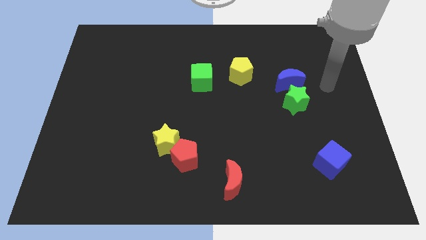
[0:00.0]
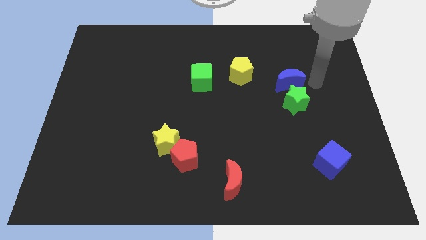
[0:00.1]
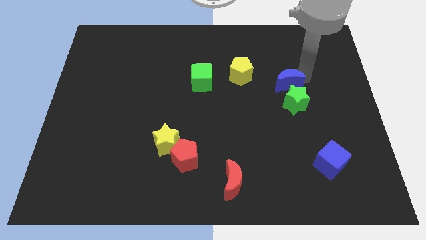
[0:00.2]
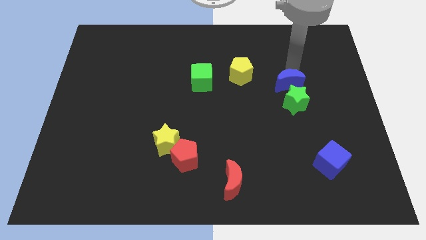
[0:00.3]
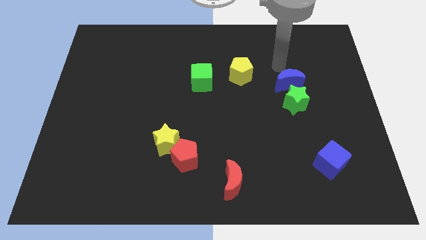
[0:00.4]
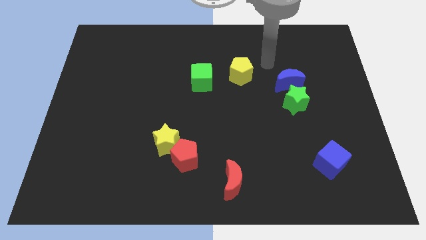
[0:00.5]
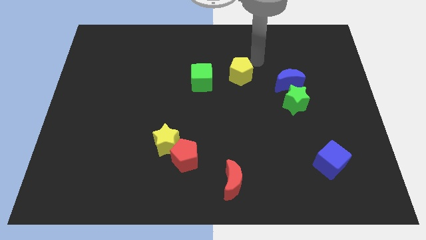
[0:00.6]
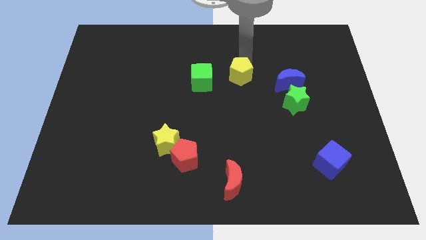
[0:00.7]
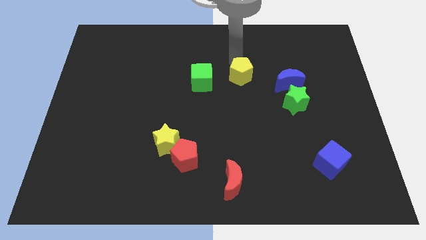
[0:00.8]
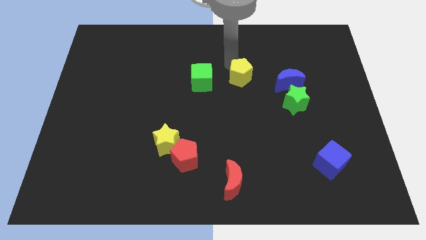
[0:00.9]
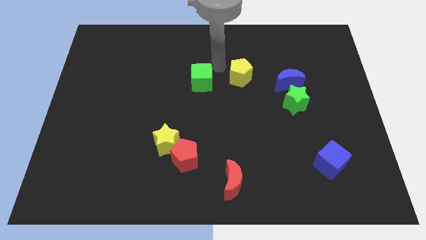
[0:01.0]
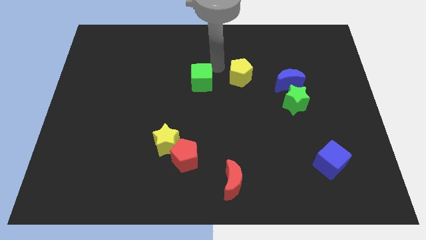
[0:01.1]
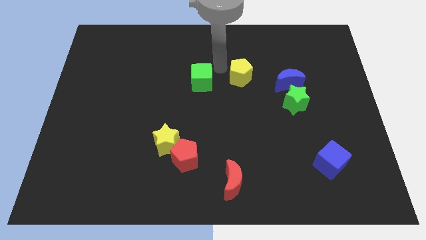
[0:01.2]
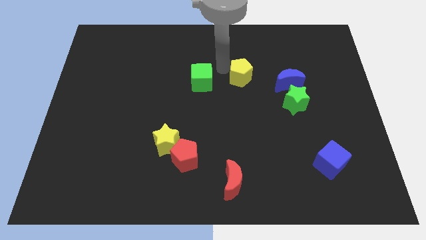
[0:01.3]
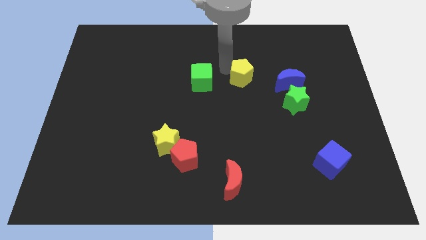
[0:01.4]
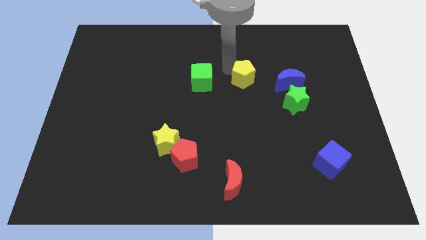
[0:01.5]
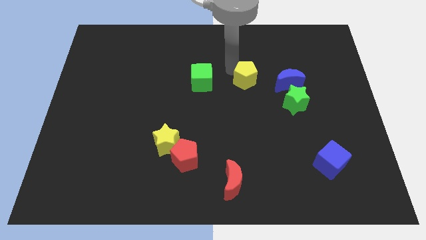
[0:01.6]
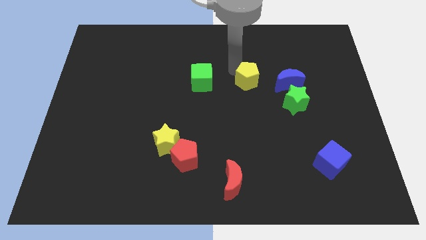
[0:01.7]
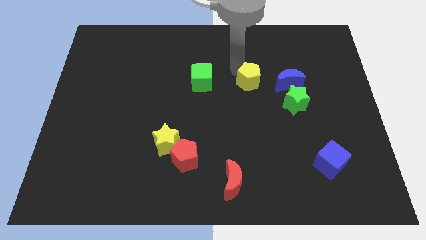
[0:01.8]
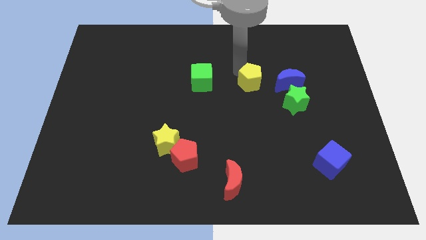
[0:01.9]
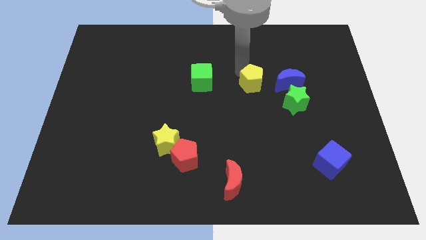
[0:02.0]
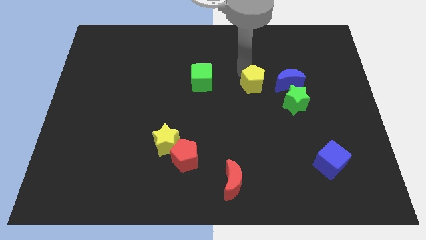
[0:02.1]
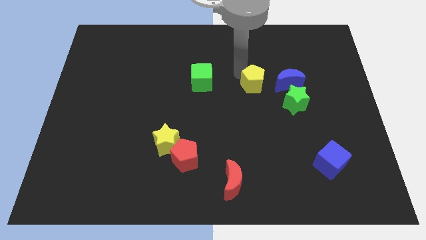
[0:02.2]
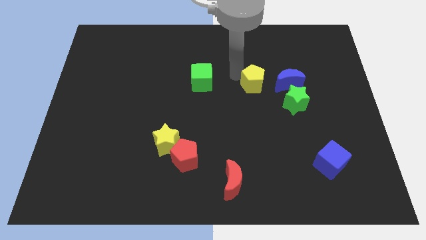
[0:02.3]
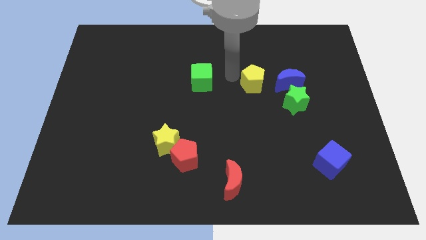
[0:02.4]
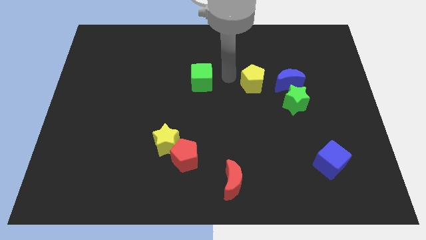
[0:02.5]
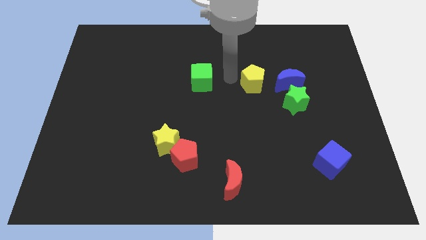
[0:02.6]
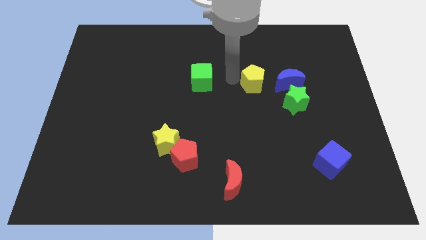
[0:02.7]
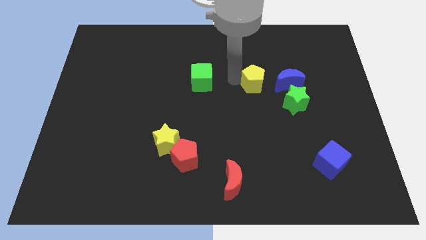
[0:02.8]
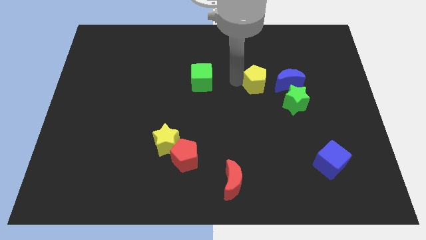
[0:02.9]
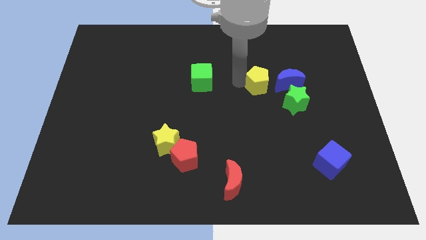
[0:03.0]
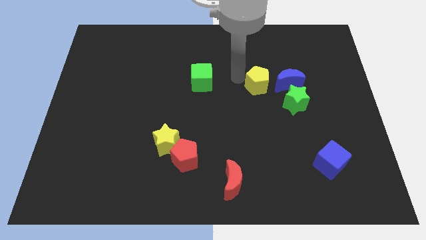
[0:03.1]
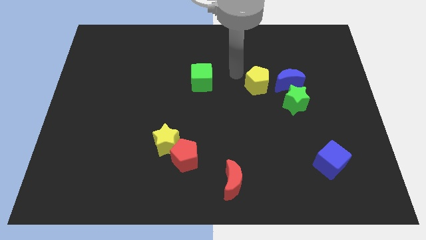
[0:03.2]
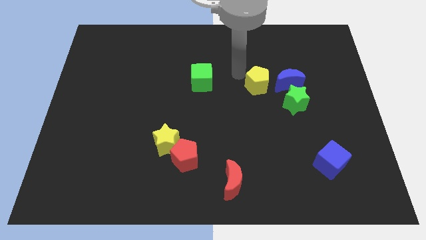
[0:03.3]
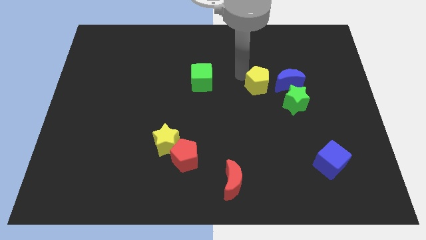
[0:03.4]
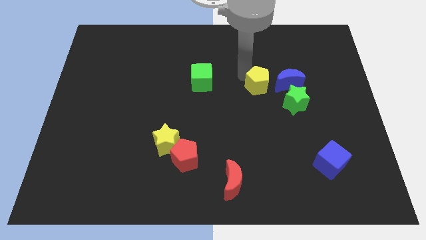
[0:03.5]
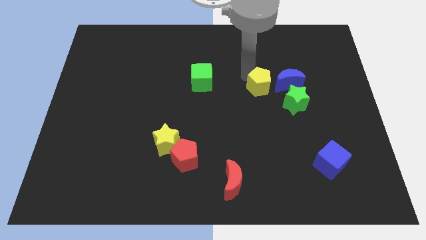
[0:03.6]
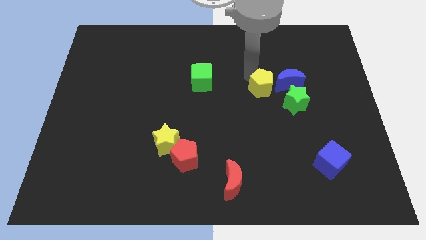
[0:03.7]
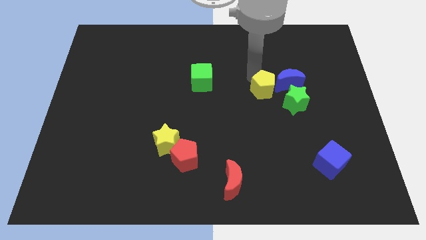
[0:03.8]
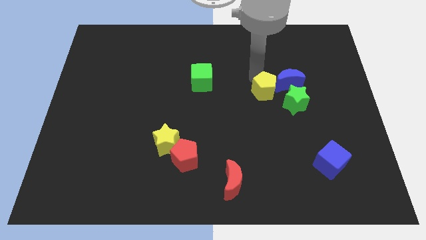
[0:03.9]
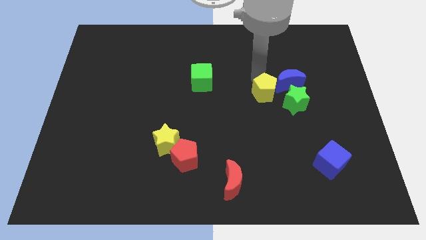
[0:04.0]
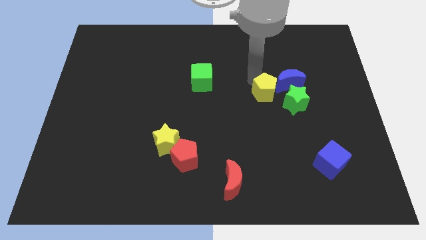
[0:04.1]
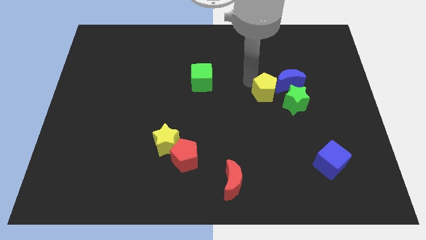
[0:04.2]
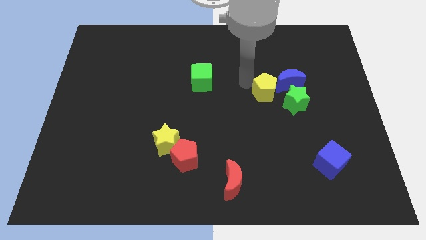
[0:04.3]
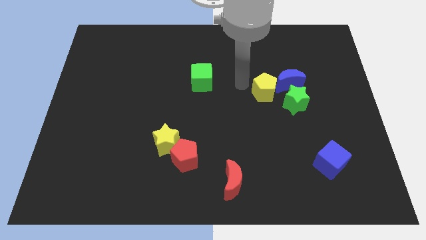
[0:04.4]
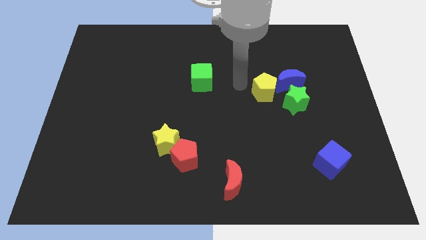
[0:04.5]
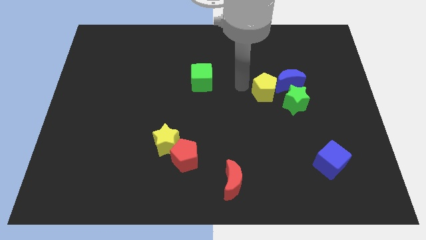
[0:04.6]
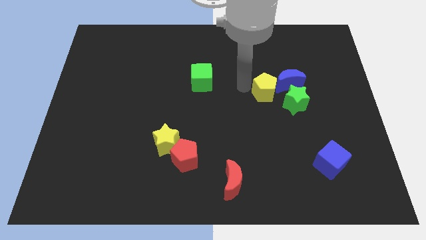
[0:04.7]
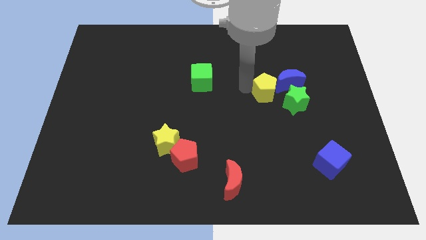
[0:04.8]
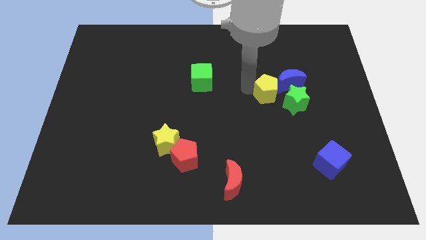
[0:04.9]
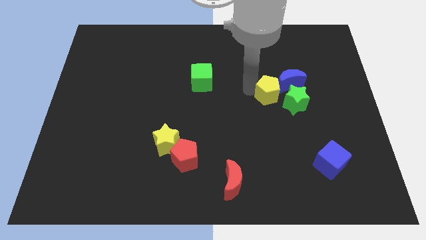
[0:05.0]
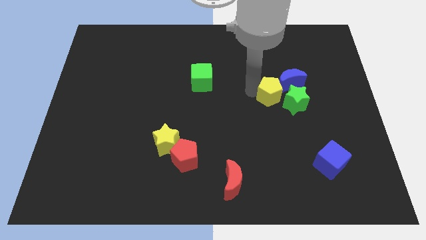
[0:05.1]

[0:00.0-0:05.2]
slide the yellow pentagon next to the green star

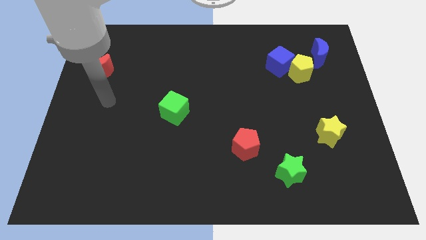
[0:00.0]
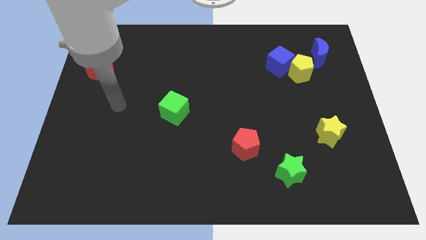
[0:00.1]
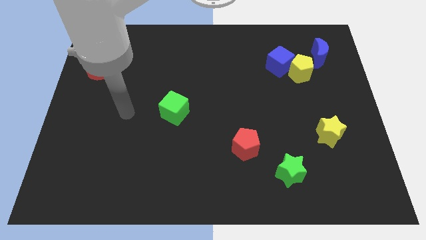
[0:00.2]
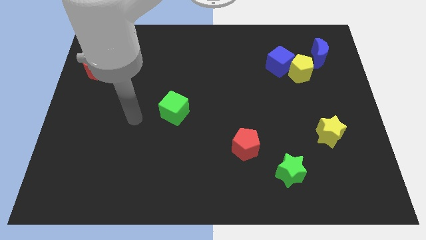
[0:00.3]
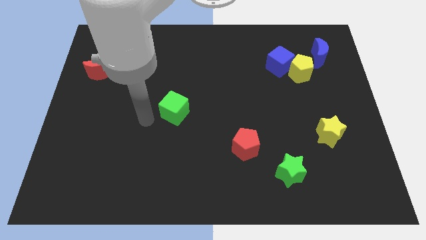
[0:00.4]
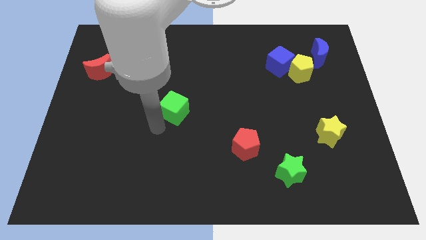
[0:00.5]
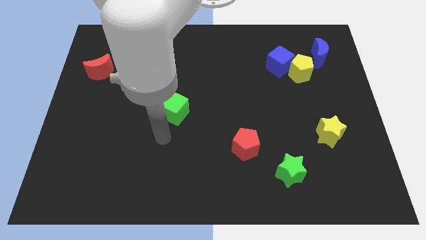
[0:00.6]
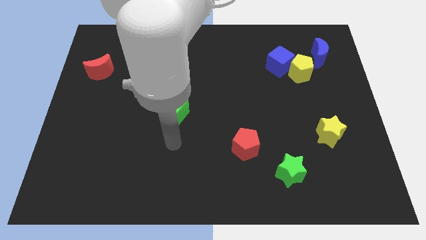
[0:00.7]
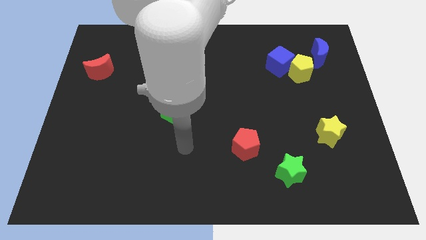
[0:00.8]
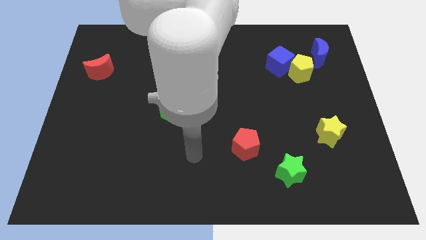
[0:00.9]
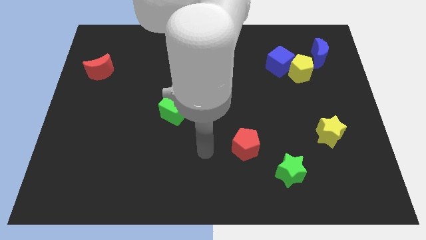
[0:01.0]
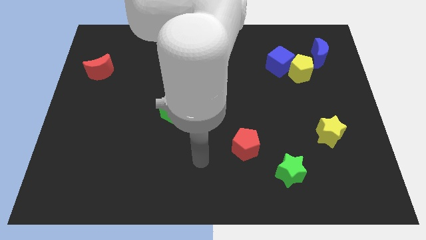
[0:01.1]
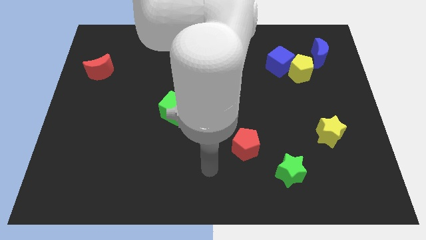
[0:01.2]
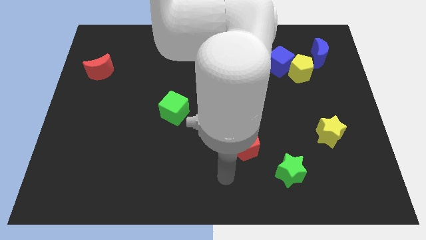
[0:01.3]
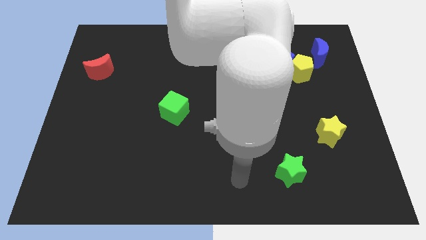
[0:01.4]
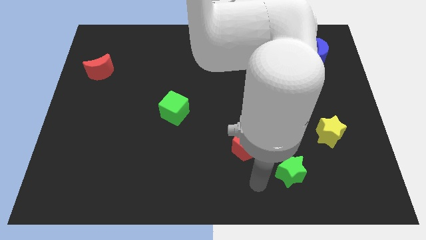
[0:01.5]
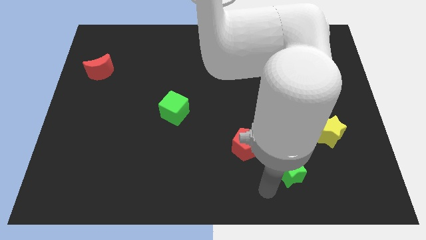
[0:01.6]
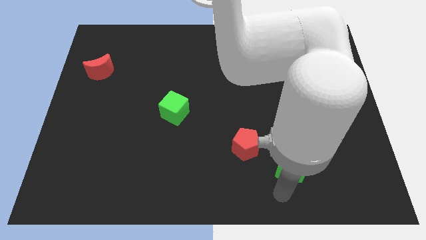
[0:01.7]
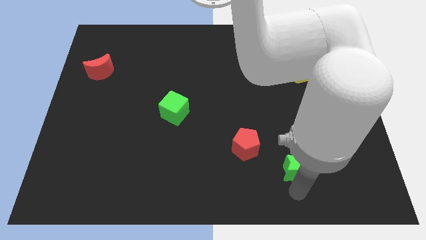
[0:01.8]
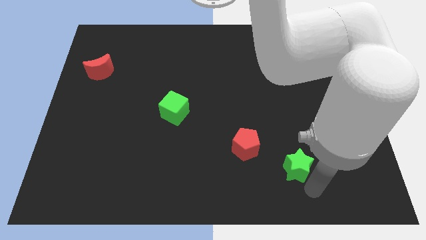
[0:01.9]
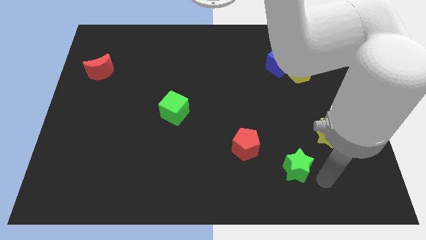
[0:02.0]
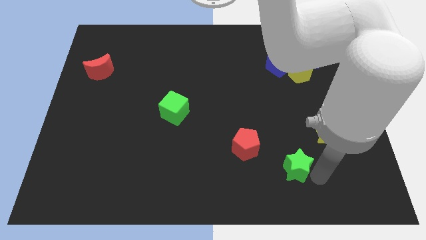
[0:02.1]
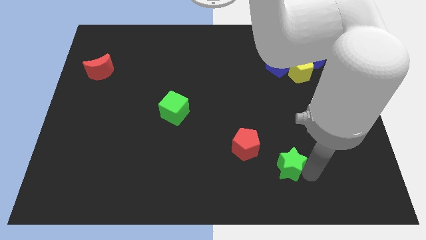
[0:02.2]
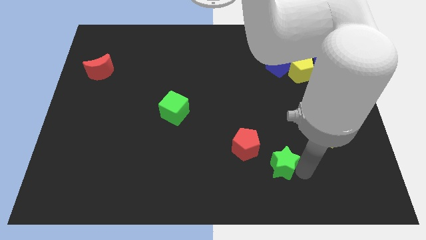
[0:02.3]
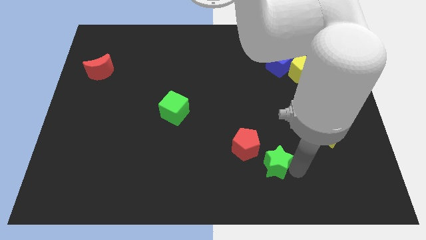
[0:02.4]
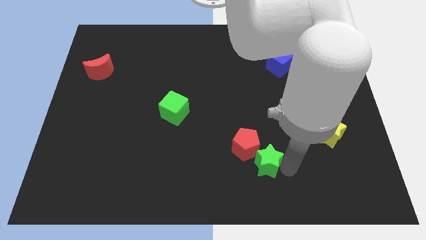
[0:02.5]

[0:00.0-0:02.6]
slide the green star towards the red pentagon
